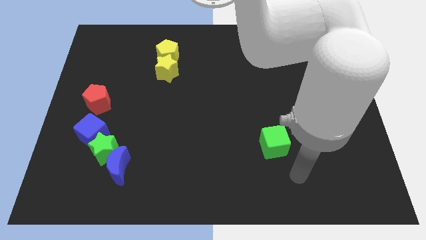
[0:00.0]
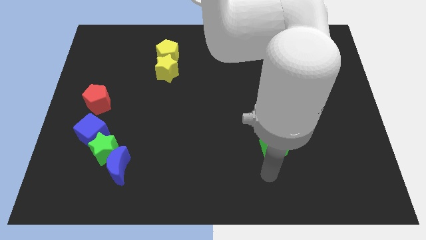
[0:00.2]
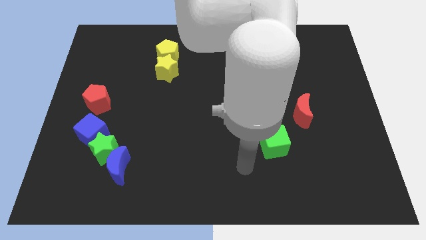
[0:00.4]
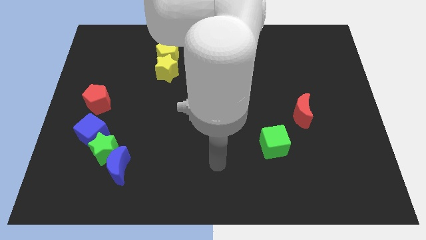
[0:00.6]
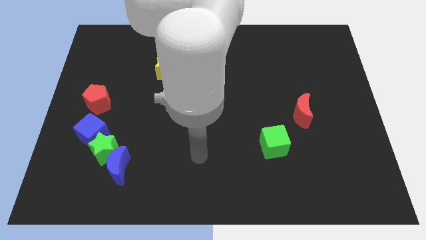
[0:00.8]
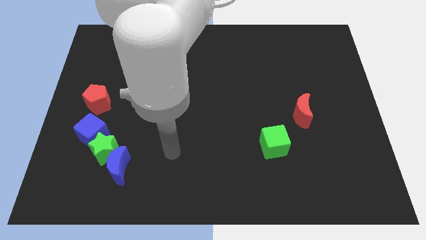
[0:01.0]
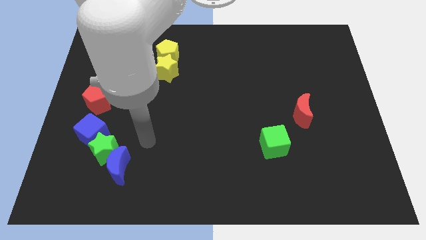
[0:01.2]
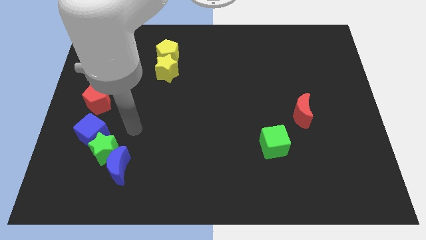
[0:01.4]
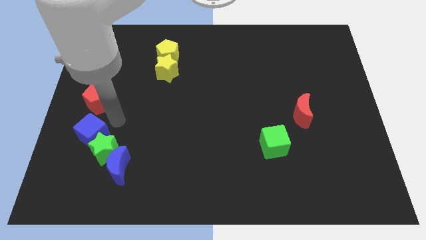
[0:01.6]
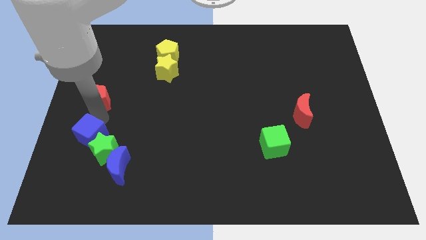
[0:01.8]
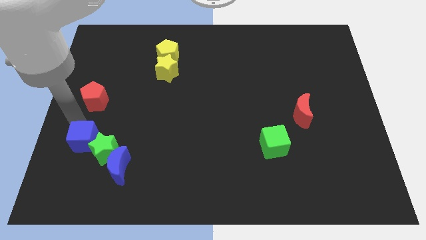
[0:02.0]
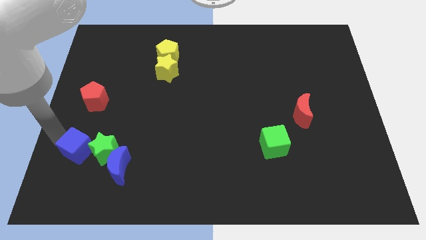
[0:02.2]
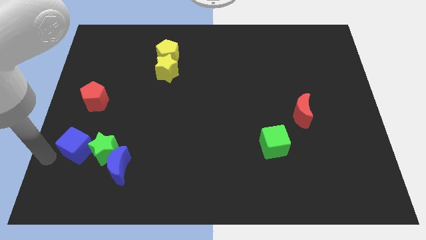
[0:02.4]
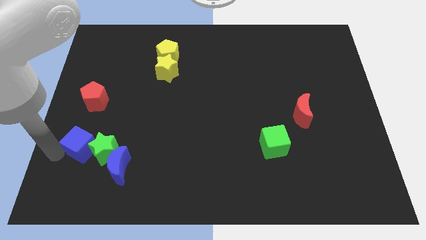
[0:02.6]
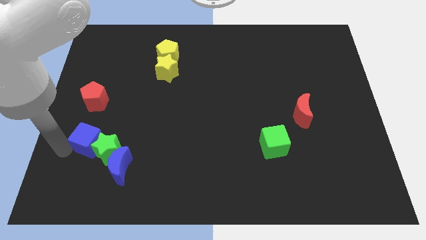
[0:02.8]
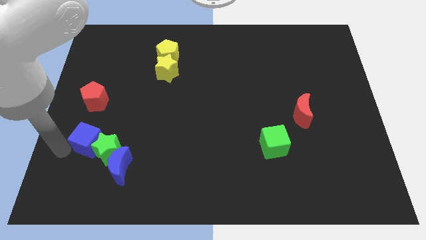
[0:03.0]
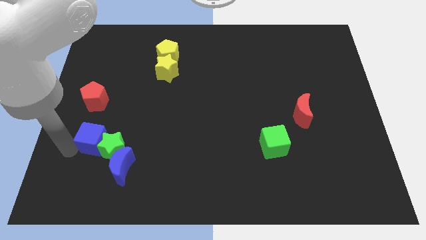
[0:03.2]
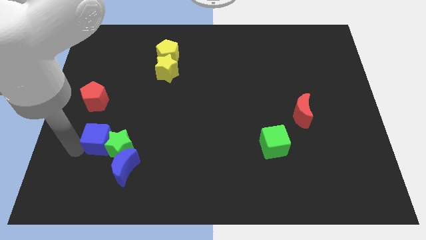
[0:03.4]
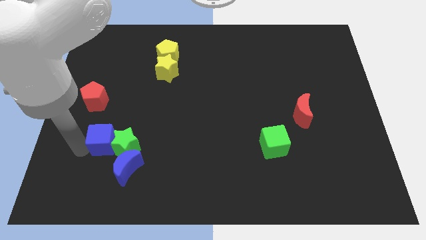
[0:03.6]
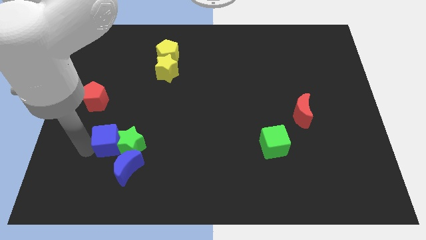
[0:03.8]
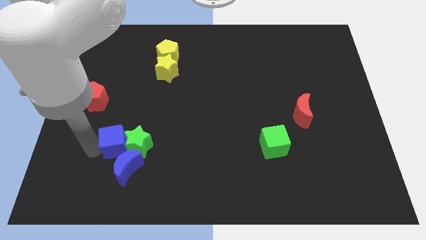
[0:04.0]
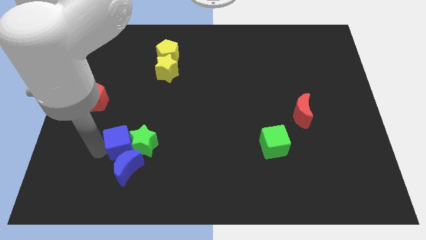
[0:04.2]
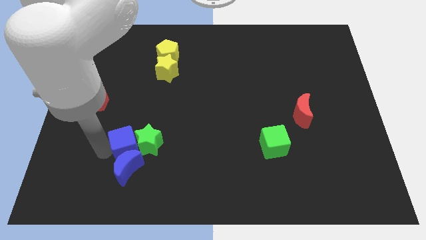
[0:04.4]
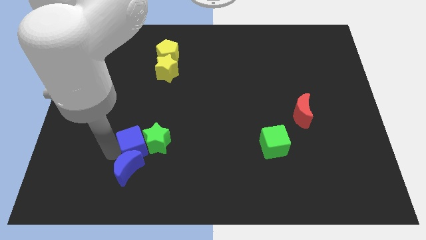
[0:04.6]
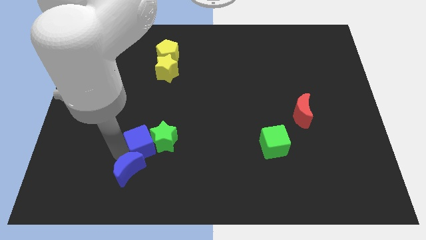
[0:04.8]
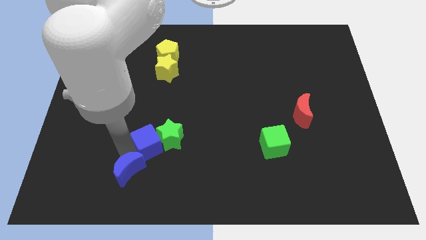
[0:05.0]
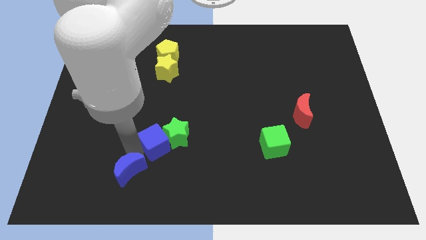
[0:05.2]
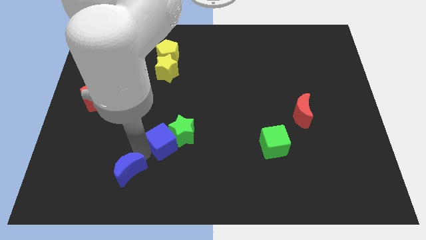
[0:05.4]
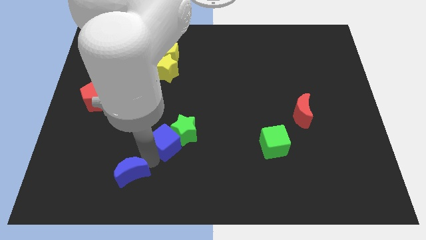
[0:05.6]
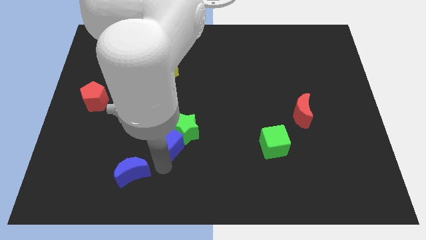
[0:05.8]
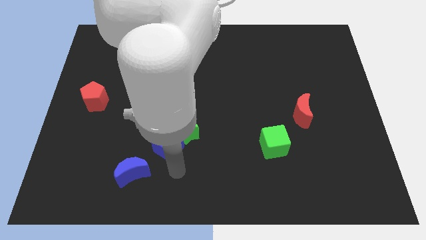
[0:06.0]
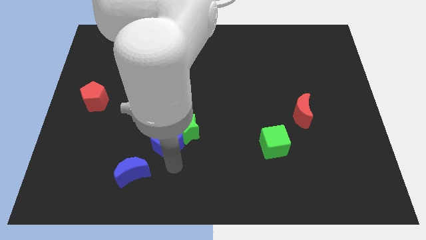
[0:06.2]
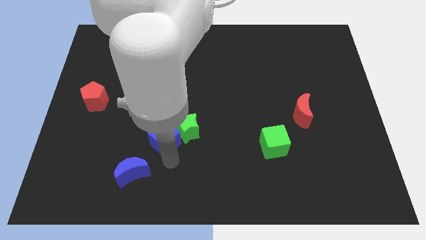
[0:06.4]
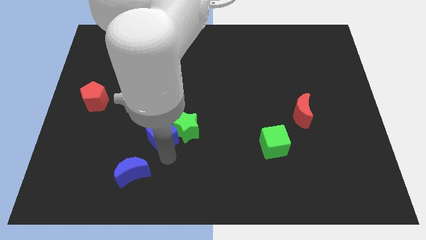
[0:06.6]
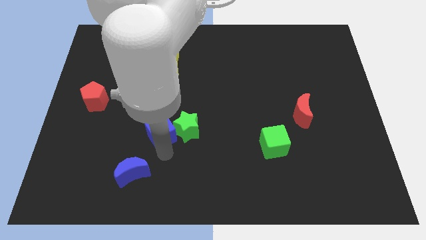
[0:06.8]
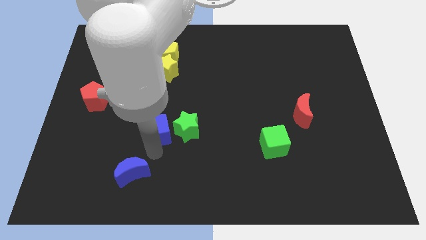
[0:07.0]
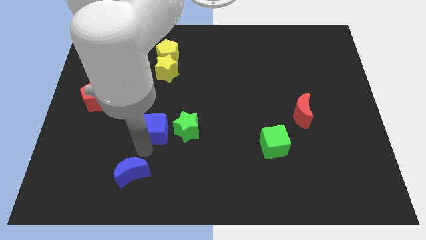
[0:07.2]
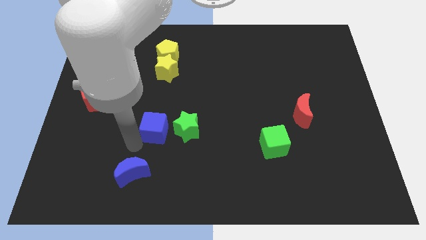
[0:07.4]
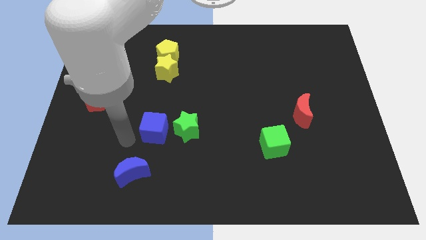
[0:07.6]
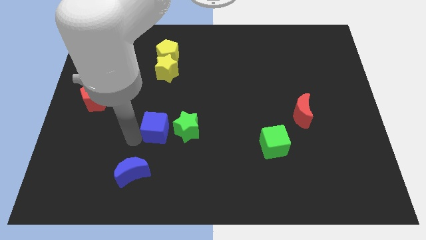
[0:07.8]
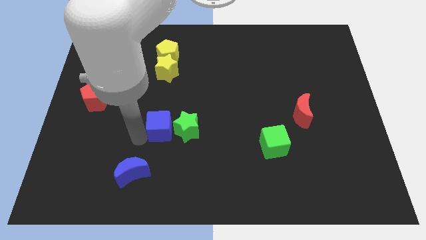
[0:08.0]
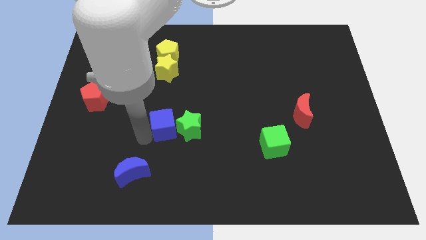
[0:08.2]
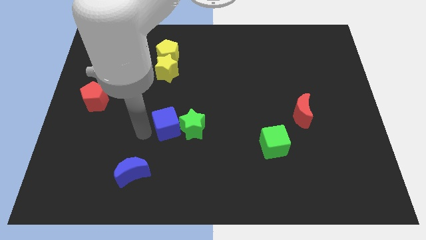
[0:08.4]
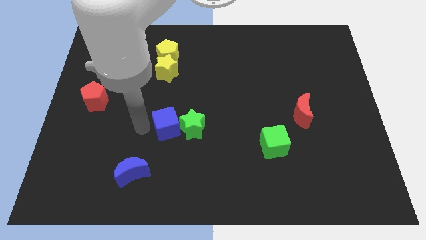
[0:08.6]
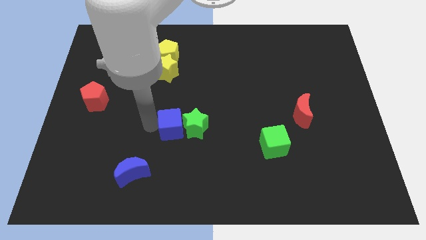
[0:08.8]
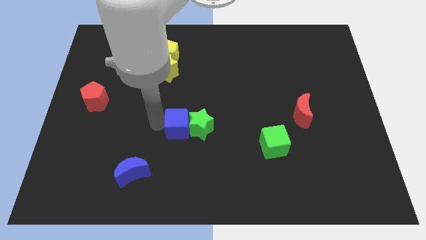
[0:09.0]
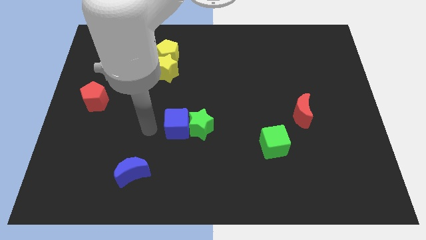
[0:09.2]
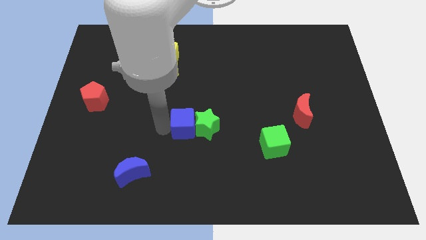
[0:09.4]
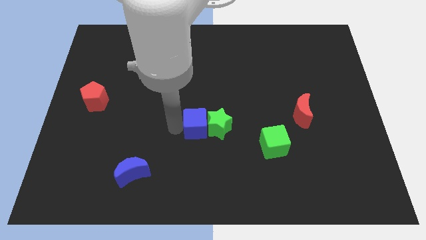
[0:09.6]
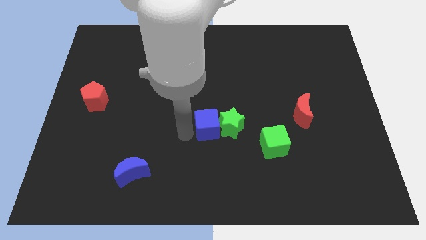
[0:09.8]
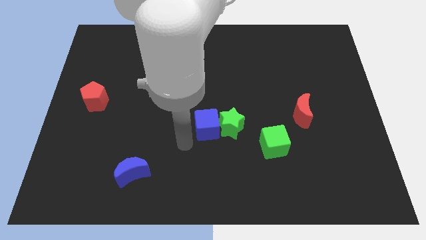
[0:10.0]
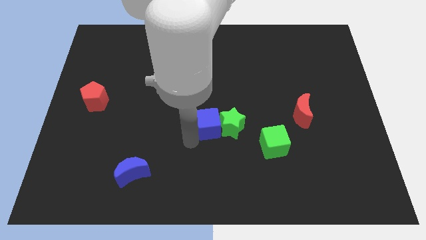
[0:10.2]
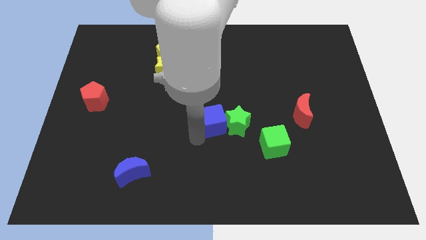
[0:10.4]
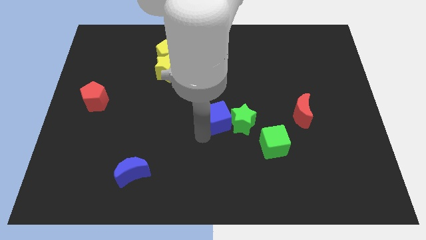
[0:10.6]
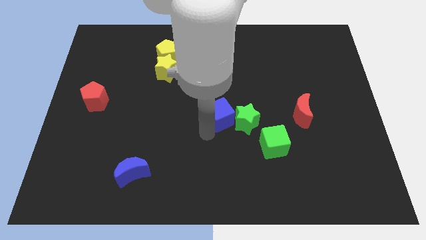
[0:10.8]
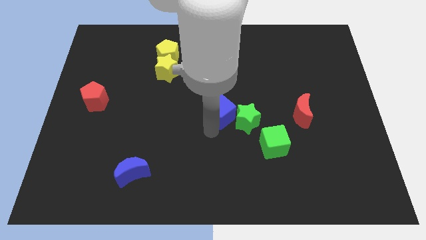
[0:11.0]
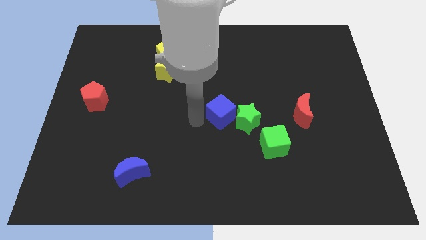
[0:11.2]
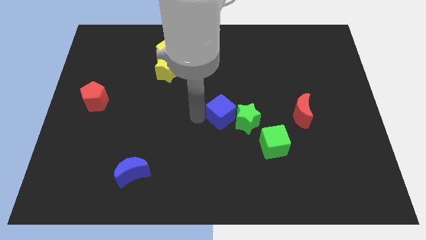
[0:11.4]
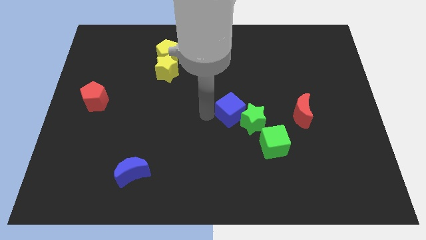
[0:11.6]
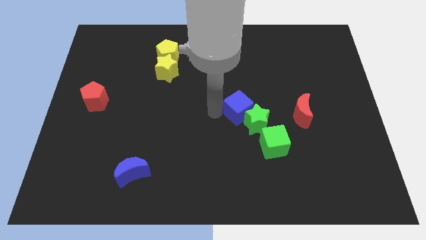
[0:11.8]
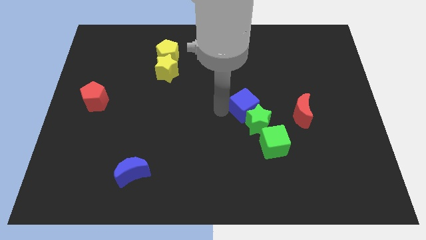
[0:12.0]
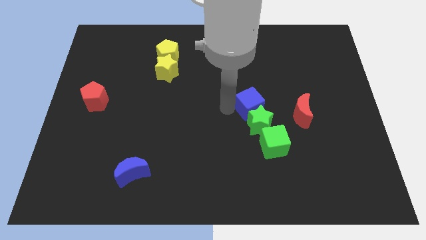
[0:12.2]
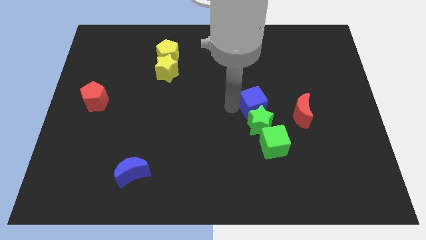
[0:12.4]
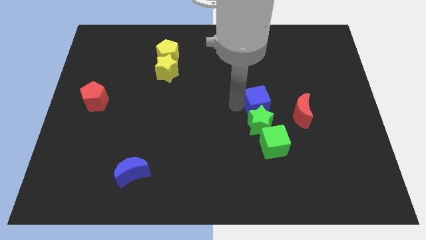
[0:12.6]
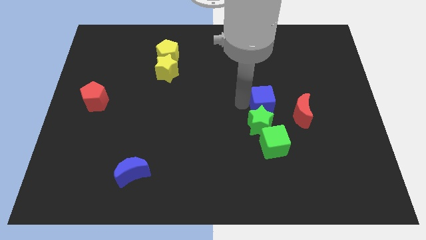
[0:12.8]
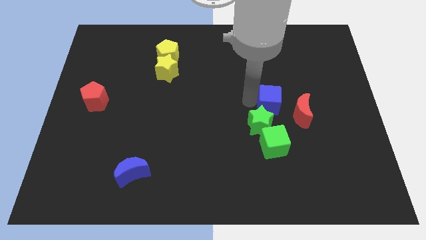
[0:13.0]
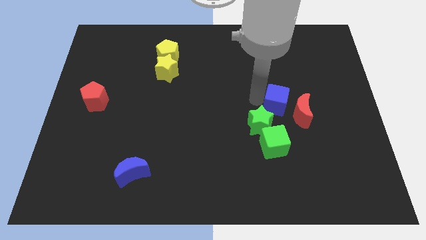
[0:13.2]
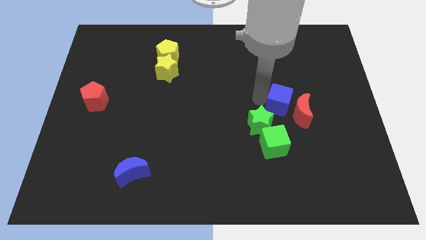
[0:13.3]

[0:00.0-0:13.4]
put the blue cube next to the red moon
